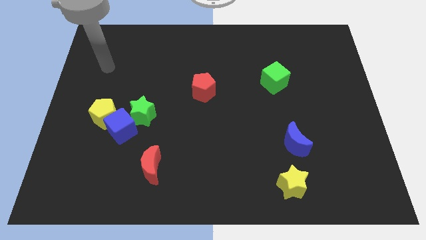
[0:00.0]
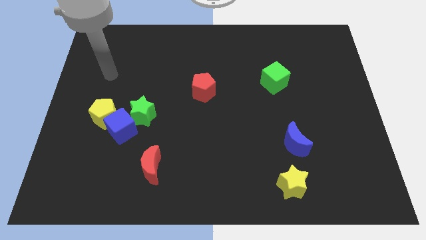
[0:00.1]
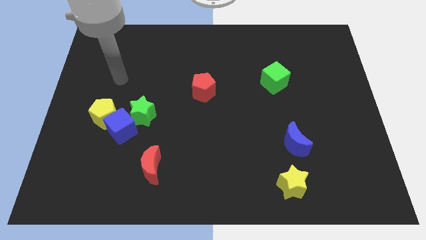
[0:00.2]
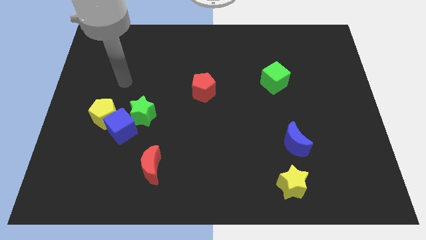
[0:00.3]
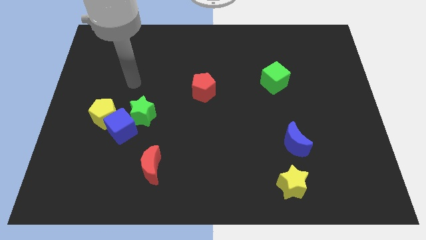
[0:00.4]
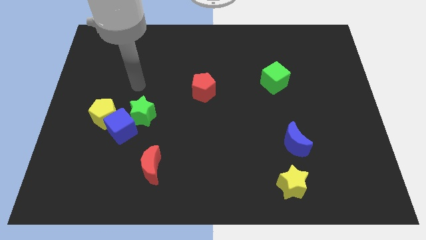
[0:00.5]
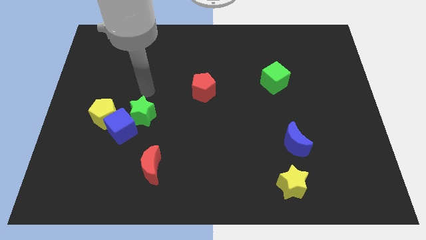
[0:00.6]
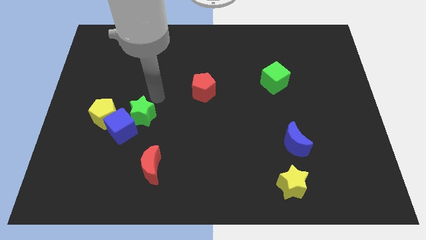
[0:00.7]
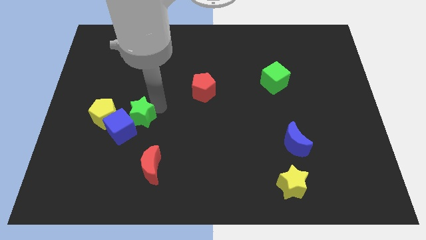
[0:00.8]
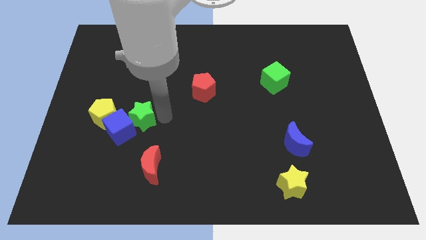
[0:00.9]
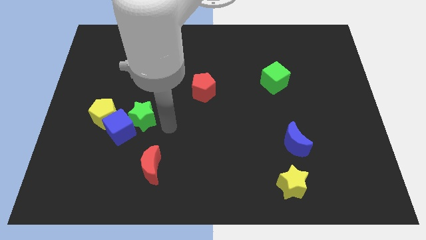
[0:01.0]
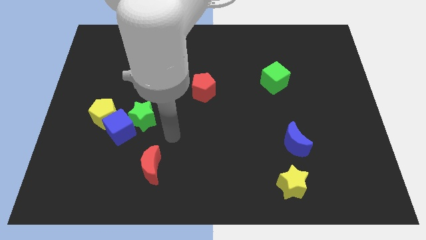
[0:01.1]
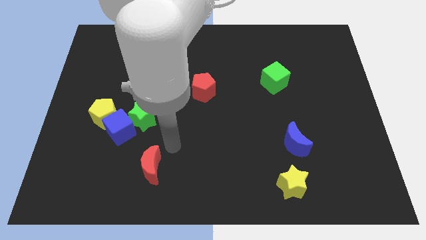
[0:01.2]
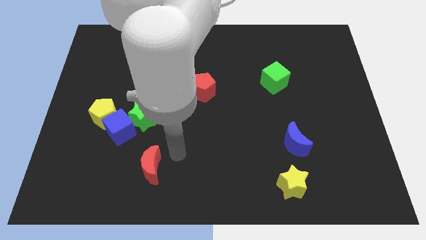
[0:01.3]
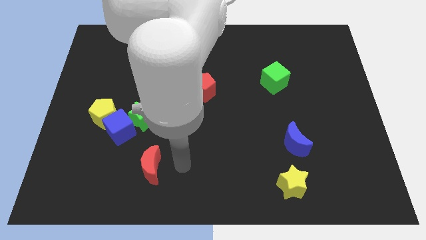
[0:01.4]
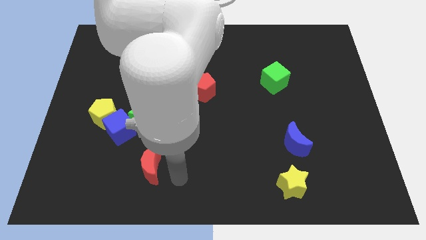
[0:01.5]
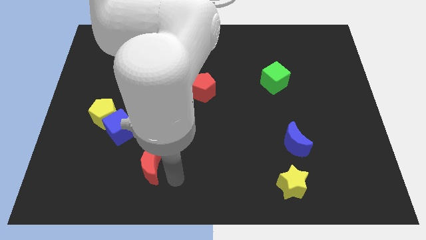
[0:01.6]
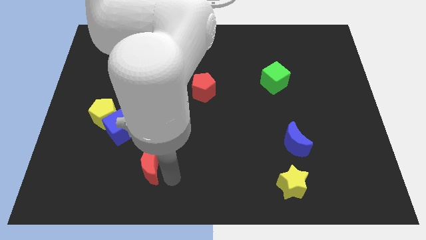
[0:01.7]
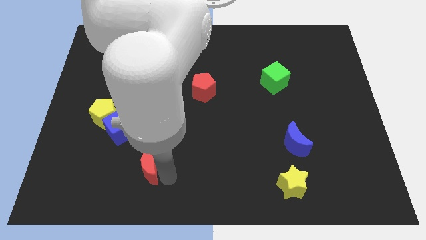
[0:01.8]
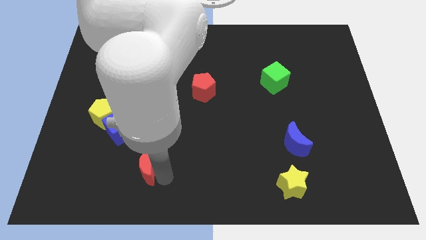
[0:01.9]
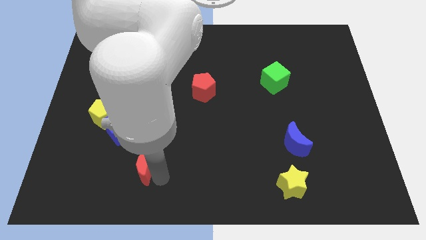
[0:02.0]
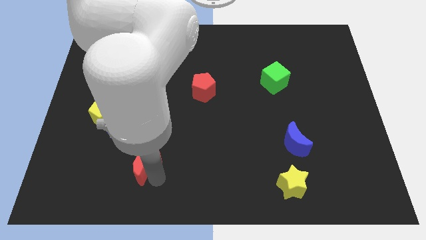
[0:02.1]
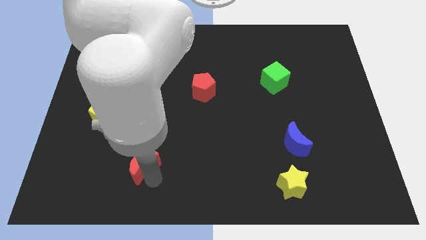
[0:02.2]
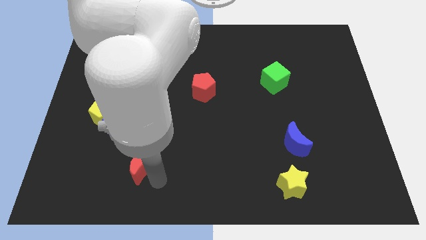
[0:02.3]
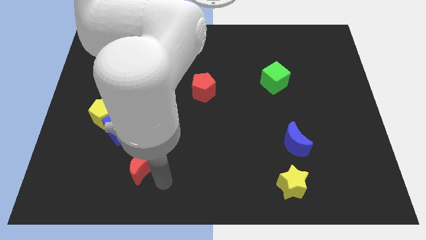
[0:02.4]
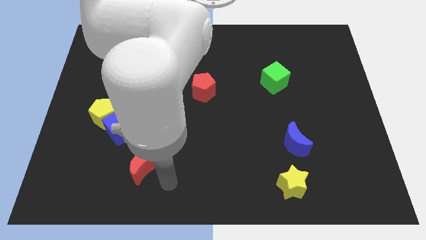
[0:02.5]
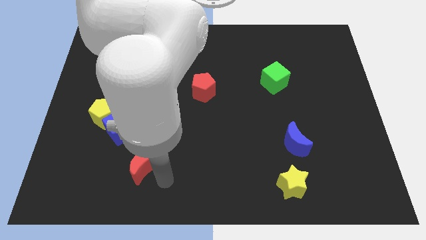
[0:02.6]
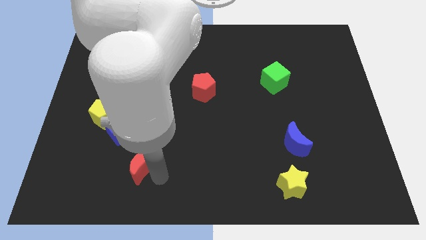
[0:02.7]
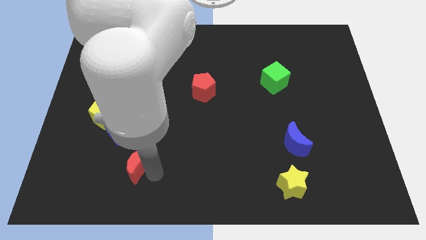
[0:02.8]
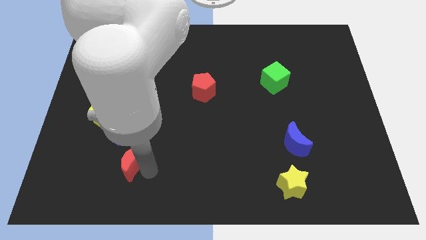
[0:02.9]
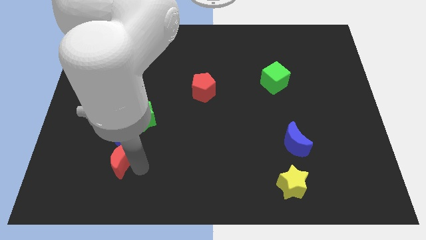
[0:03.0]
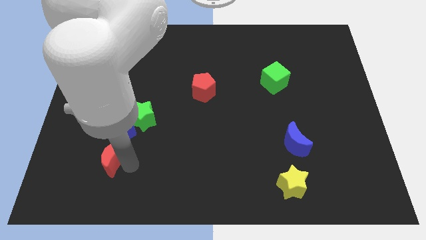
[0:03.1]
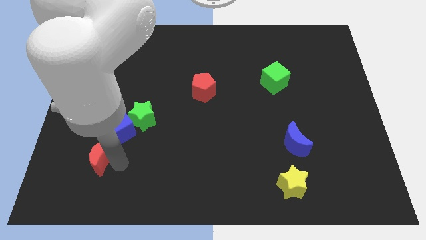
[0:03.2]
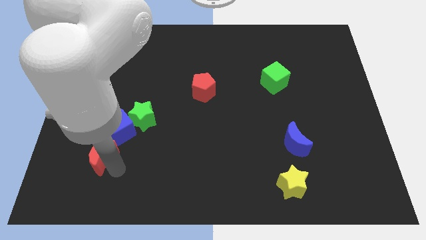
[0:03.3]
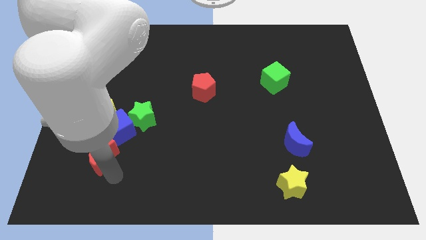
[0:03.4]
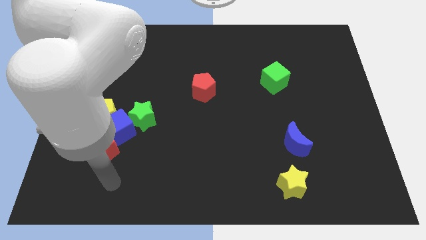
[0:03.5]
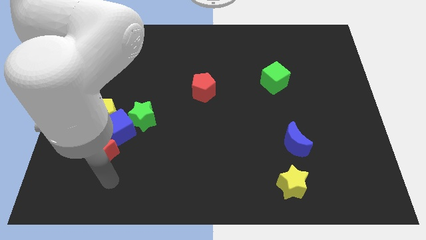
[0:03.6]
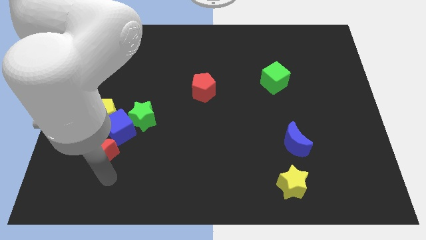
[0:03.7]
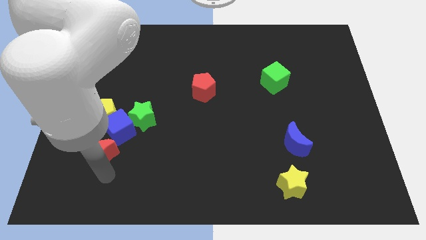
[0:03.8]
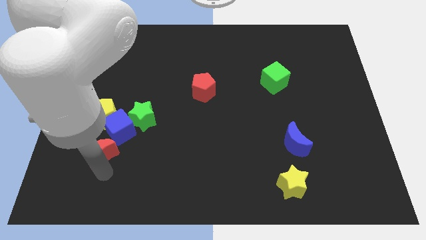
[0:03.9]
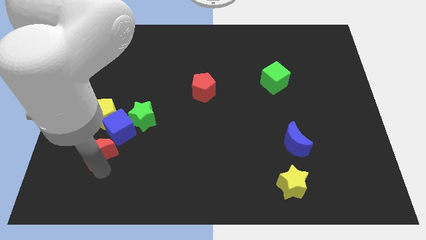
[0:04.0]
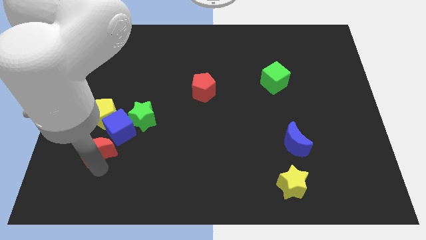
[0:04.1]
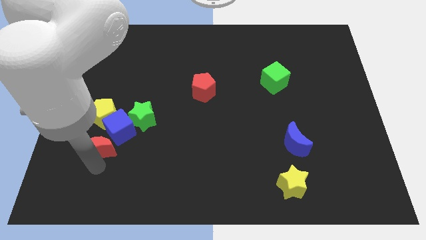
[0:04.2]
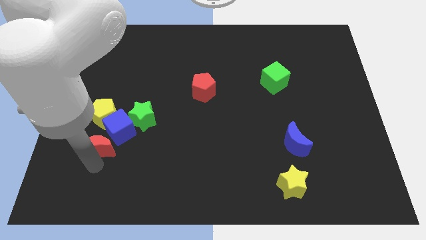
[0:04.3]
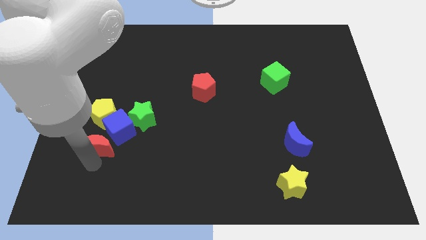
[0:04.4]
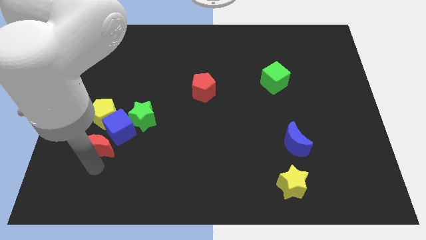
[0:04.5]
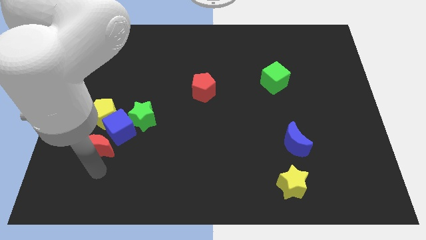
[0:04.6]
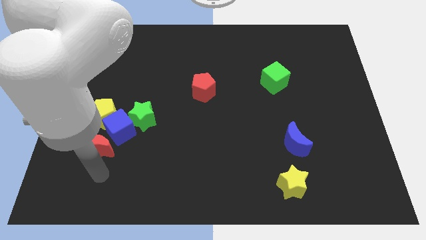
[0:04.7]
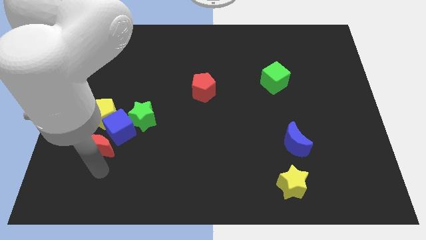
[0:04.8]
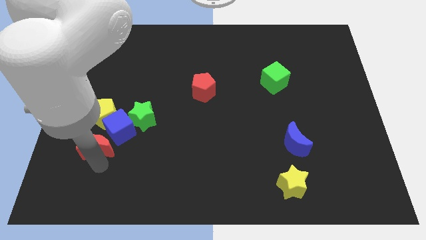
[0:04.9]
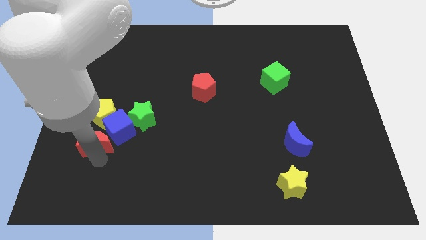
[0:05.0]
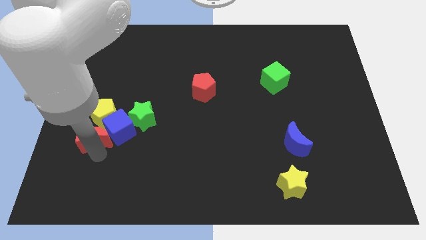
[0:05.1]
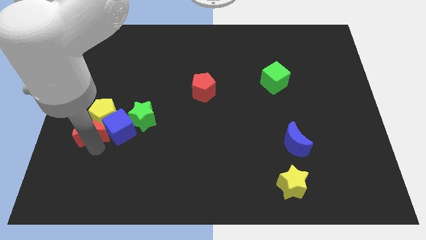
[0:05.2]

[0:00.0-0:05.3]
slide the red moon just left of the green star

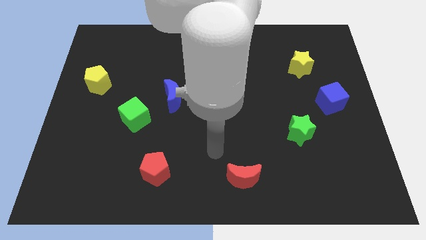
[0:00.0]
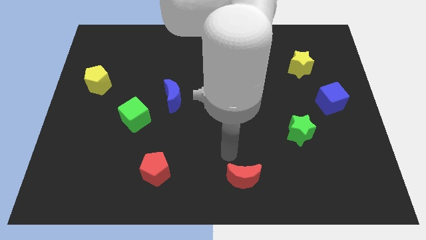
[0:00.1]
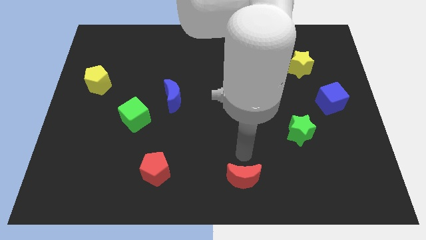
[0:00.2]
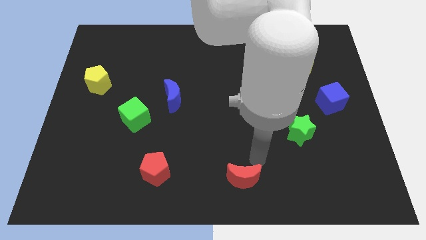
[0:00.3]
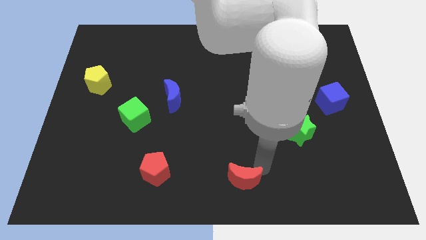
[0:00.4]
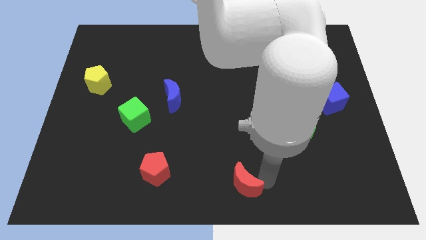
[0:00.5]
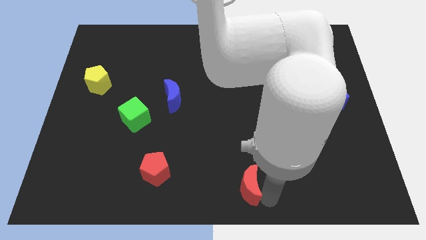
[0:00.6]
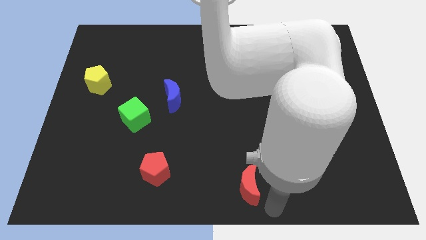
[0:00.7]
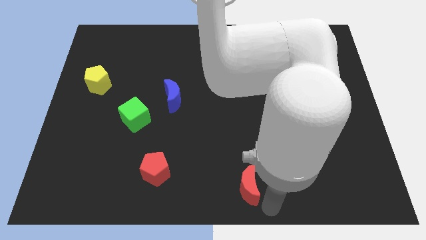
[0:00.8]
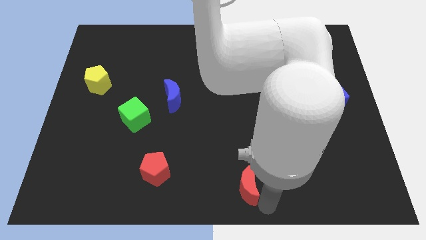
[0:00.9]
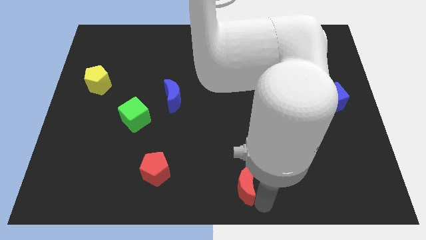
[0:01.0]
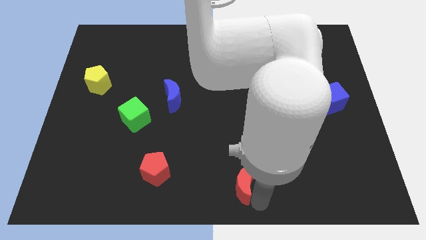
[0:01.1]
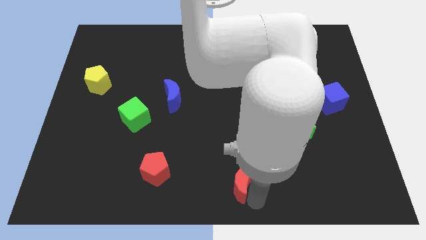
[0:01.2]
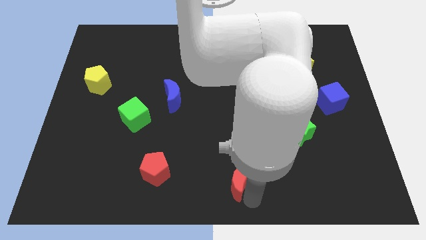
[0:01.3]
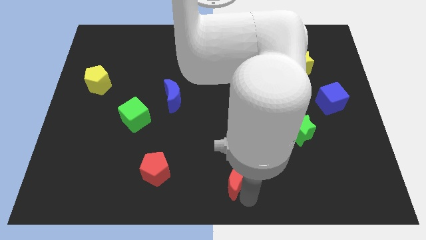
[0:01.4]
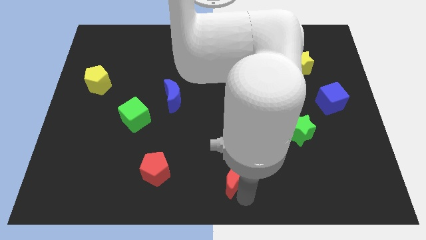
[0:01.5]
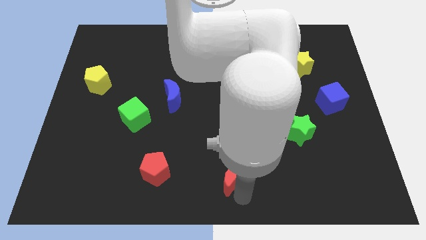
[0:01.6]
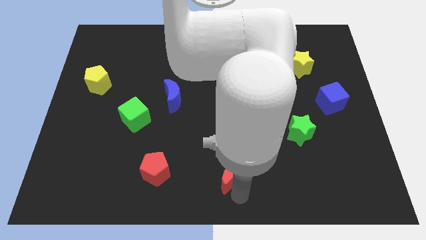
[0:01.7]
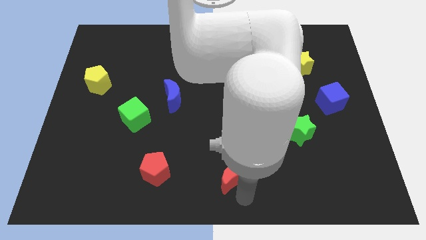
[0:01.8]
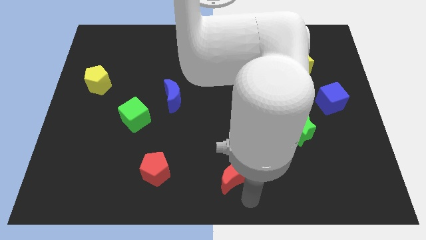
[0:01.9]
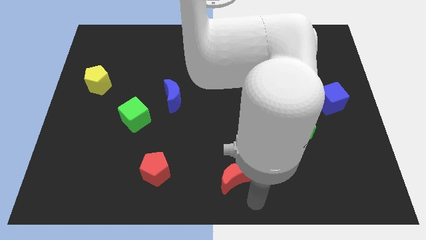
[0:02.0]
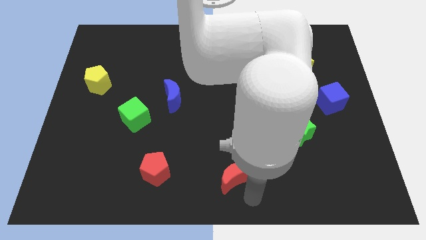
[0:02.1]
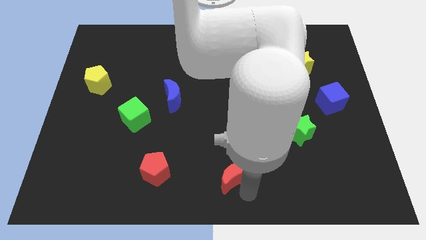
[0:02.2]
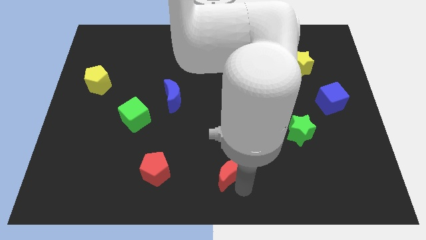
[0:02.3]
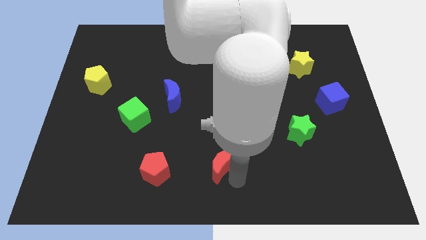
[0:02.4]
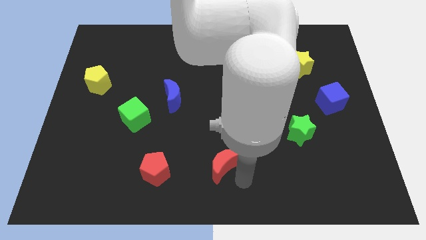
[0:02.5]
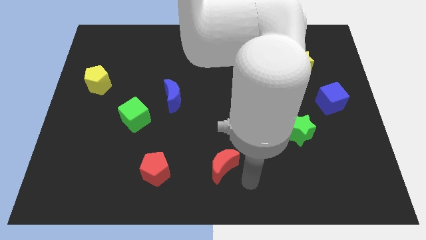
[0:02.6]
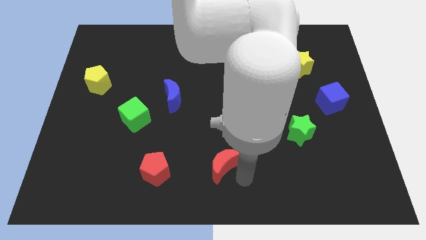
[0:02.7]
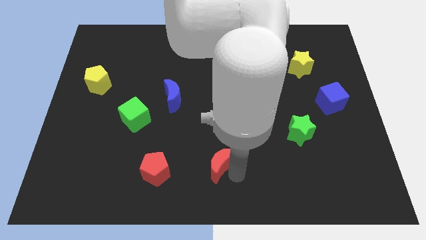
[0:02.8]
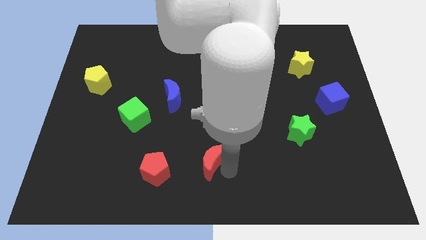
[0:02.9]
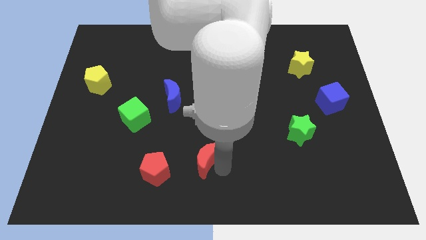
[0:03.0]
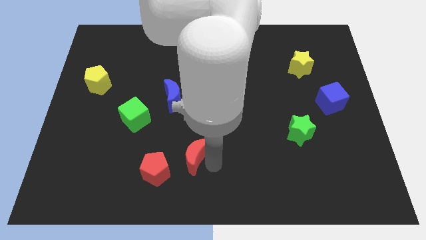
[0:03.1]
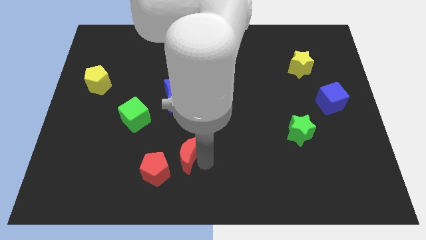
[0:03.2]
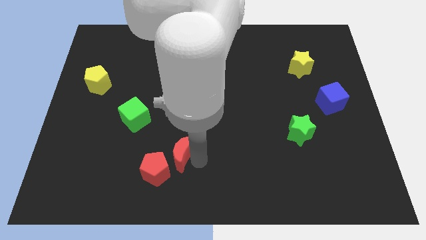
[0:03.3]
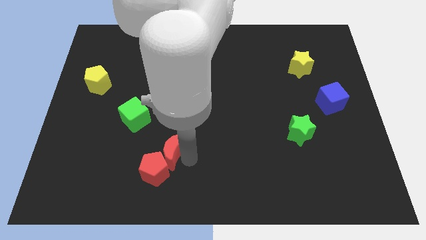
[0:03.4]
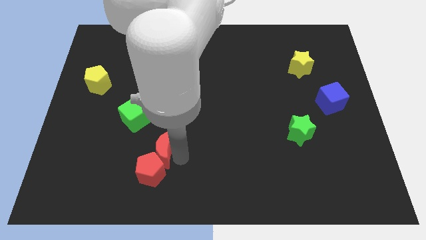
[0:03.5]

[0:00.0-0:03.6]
push the red moon to the bottom right of the green cube
